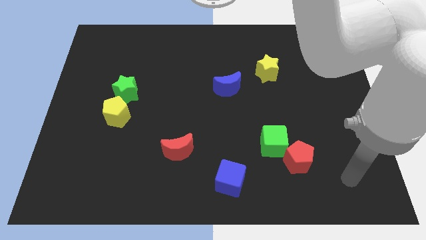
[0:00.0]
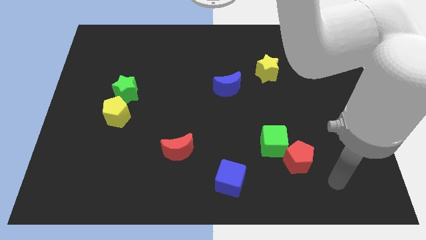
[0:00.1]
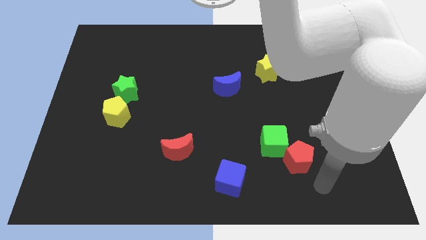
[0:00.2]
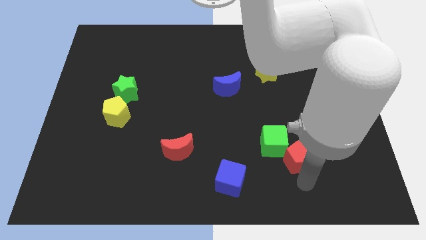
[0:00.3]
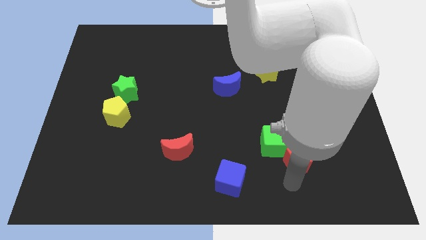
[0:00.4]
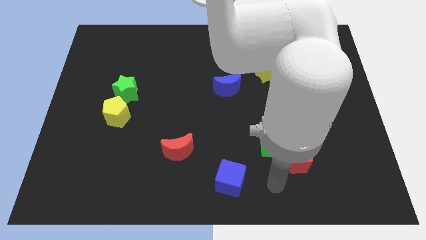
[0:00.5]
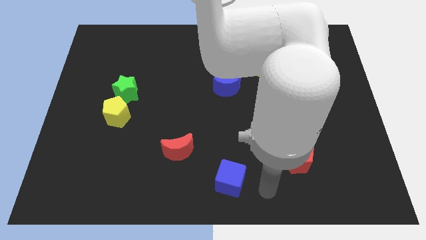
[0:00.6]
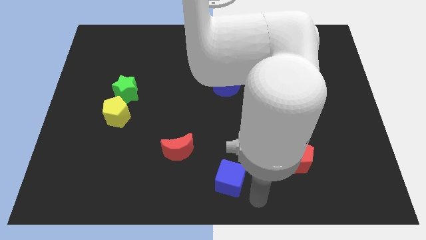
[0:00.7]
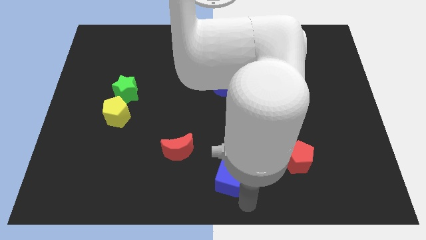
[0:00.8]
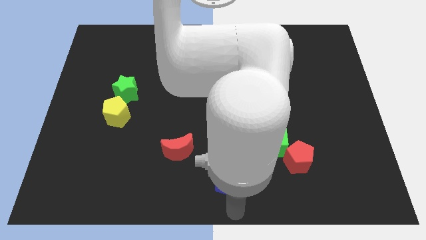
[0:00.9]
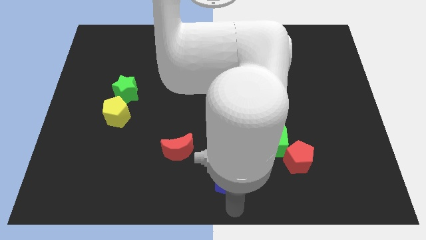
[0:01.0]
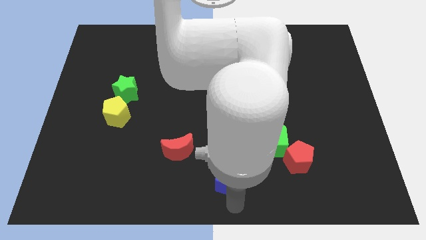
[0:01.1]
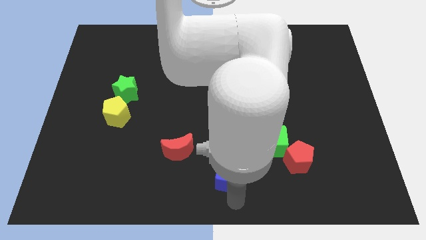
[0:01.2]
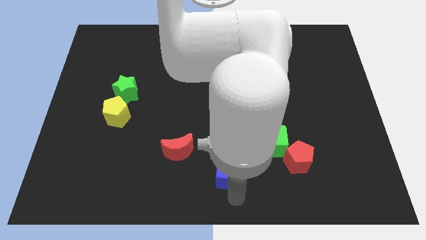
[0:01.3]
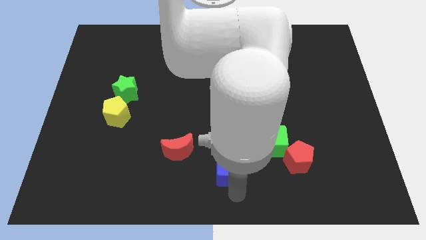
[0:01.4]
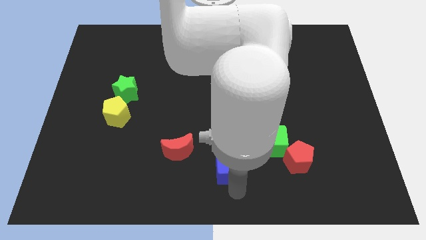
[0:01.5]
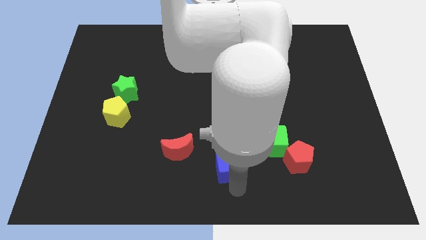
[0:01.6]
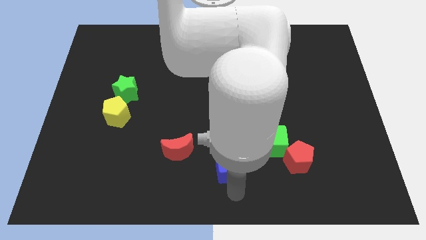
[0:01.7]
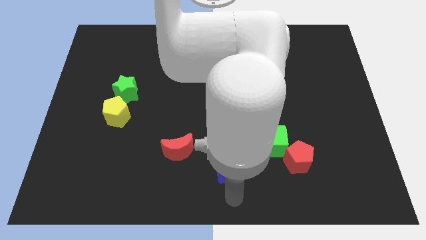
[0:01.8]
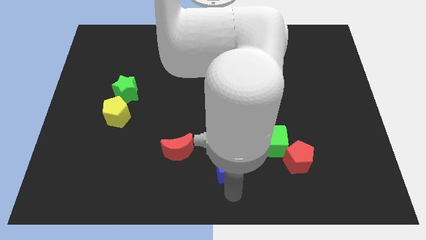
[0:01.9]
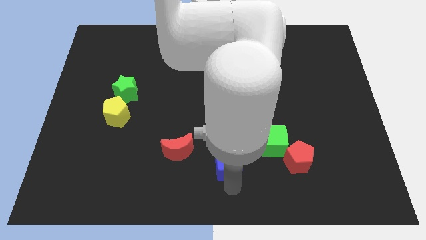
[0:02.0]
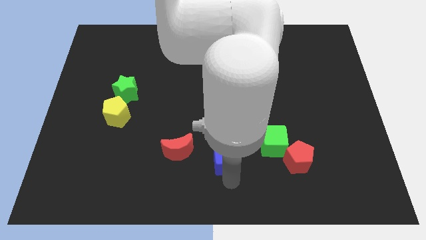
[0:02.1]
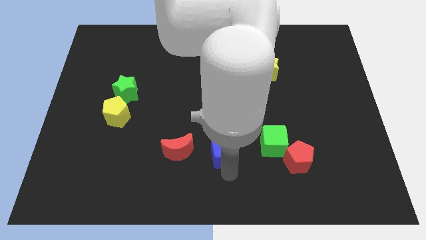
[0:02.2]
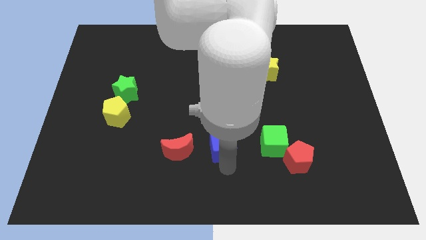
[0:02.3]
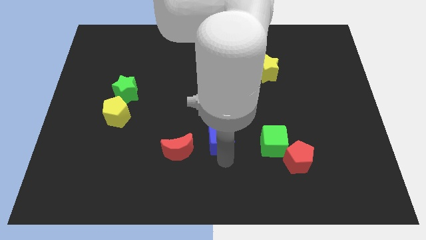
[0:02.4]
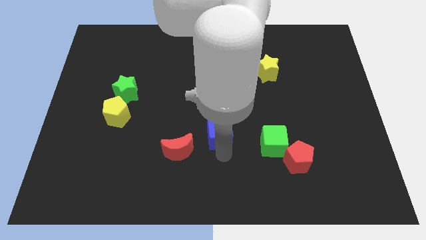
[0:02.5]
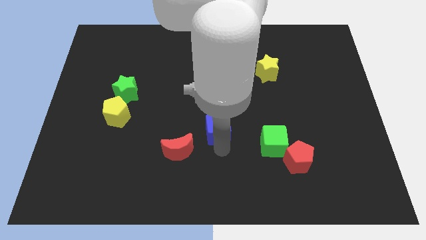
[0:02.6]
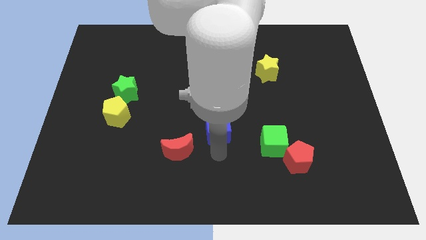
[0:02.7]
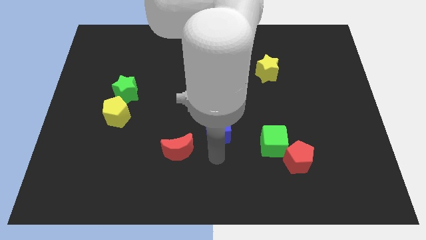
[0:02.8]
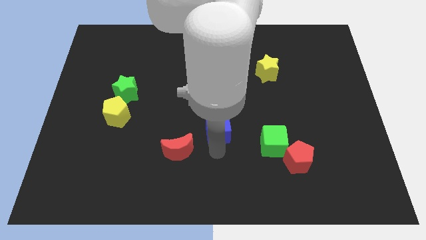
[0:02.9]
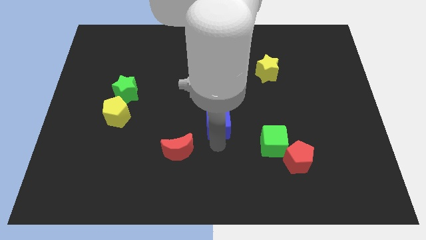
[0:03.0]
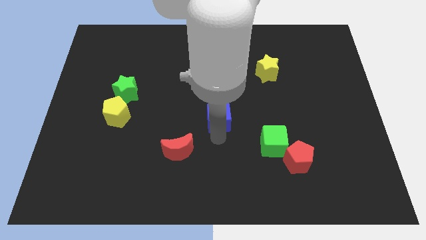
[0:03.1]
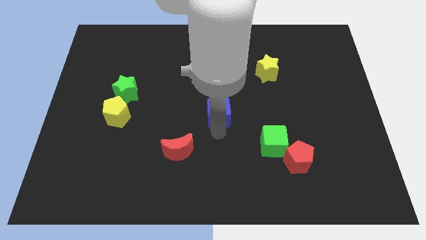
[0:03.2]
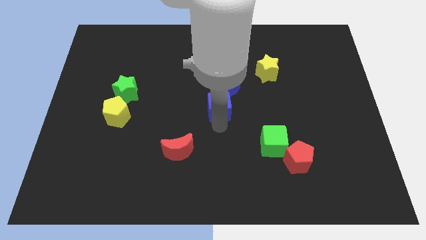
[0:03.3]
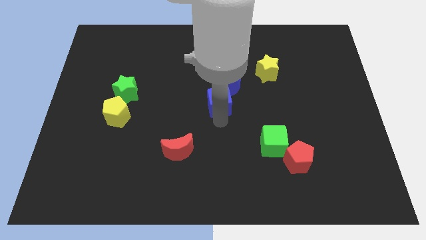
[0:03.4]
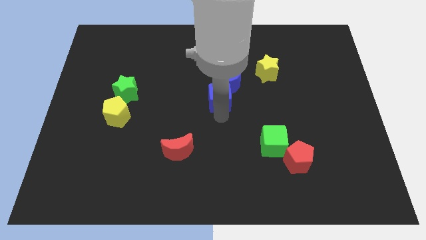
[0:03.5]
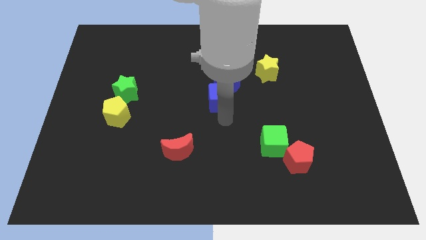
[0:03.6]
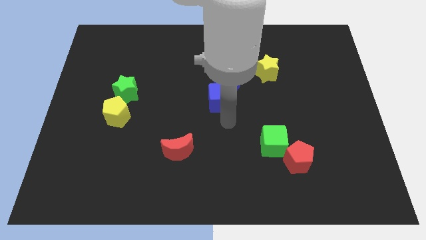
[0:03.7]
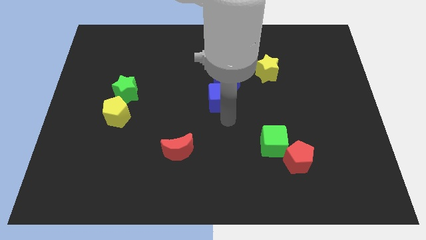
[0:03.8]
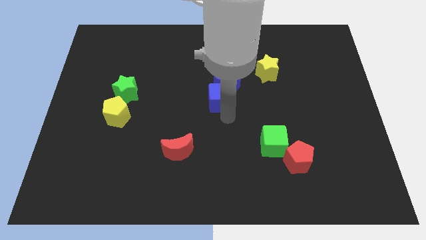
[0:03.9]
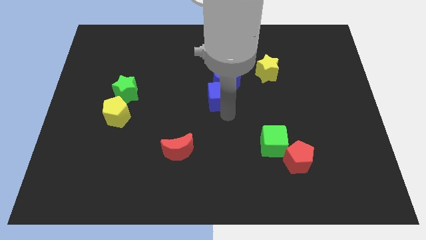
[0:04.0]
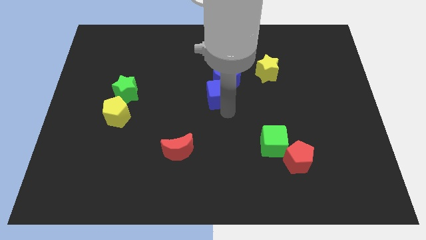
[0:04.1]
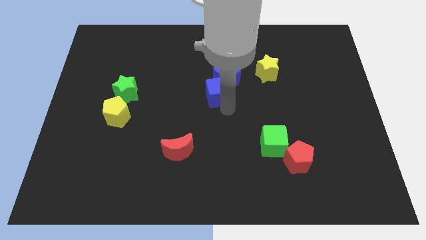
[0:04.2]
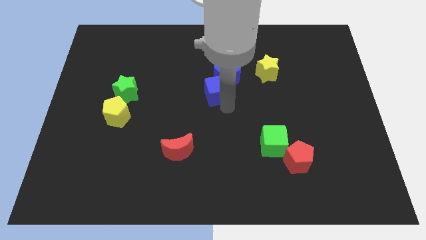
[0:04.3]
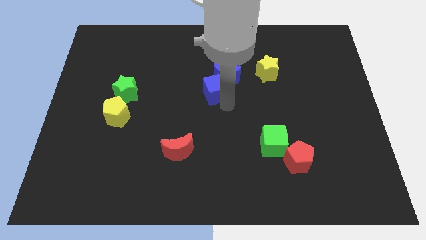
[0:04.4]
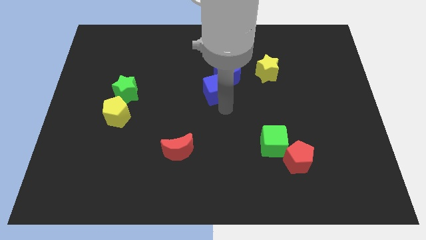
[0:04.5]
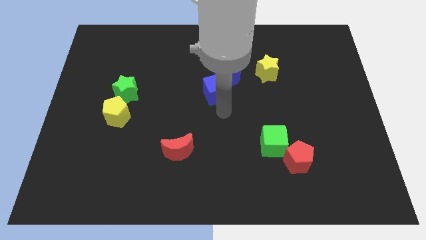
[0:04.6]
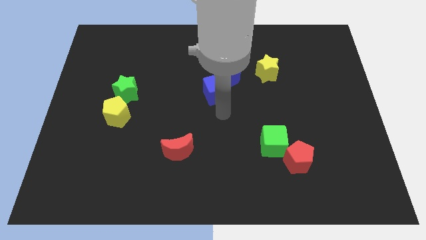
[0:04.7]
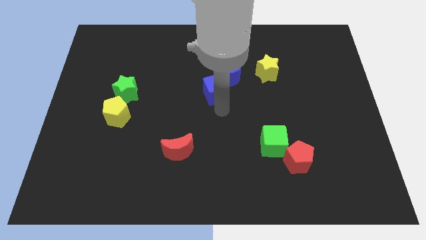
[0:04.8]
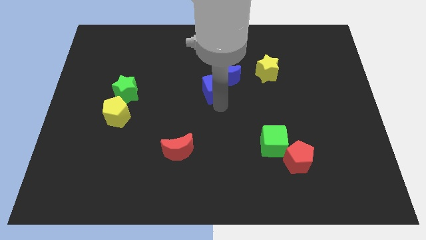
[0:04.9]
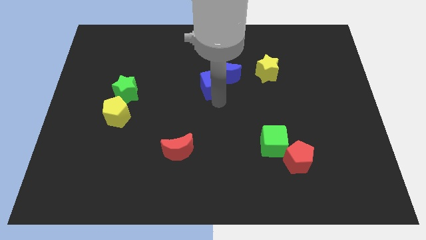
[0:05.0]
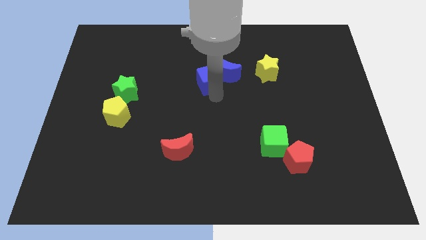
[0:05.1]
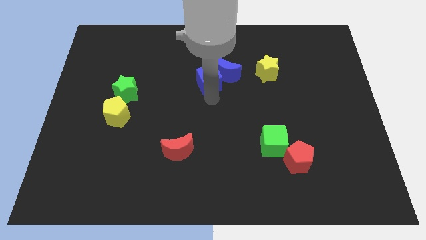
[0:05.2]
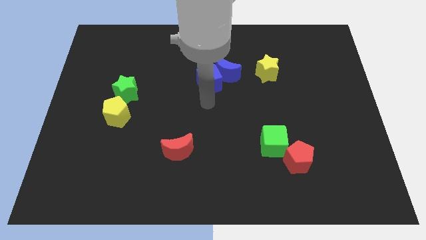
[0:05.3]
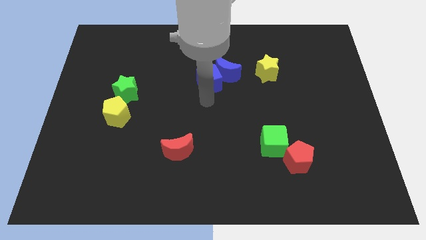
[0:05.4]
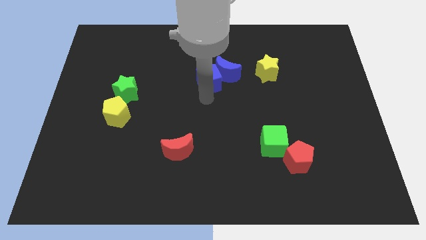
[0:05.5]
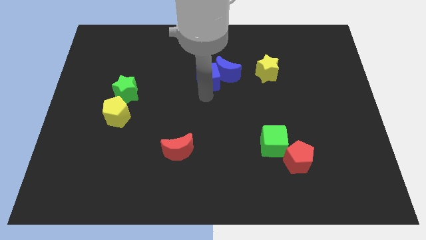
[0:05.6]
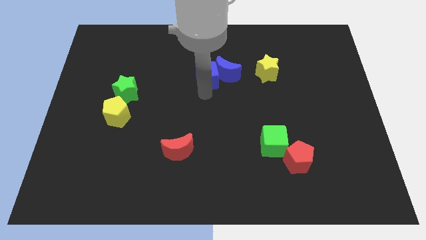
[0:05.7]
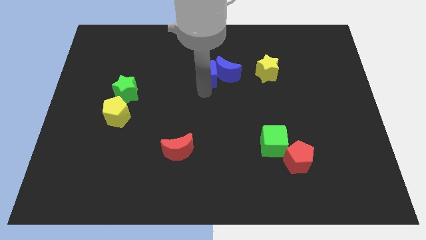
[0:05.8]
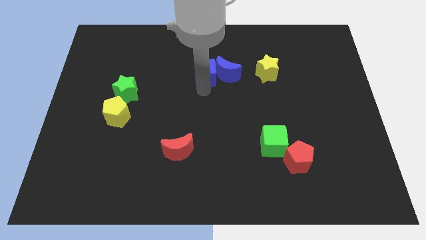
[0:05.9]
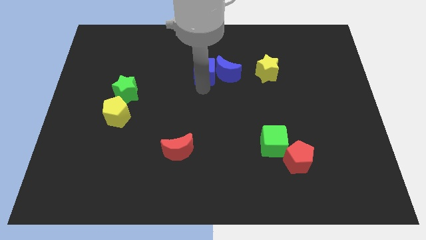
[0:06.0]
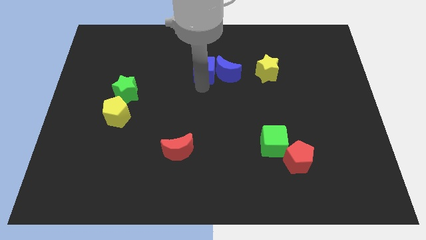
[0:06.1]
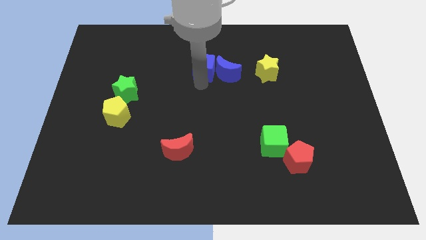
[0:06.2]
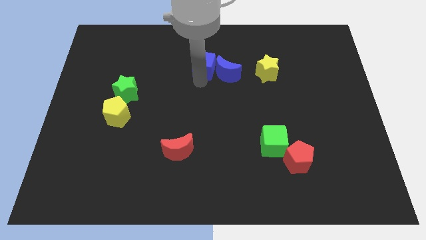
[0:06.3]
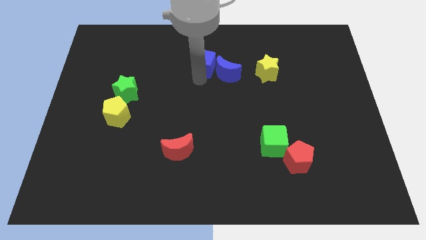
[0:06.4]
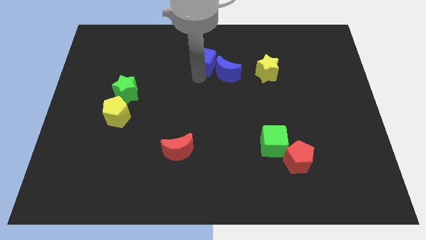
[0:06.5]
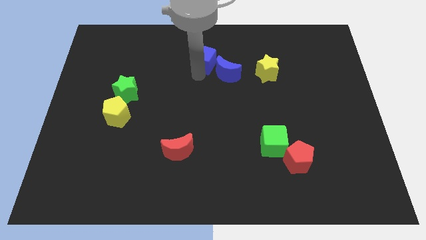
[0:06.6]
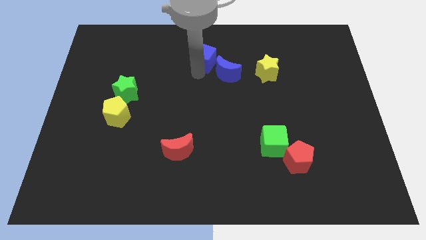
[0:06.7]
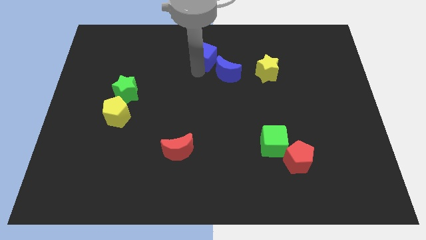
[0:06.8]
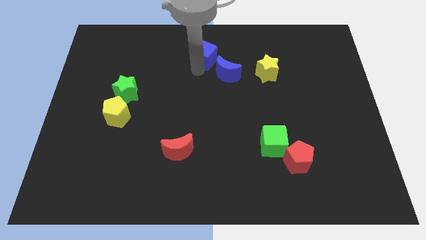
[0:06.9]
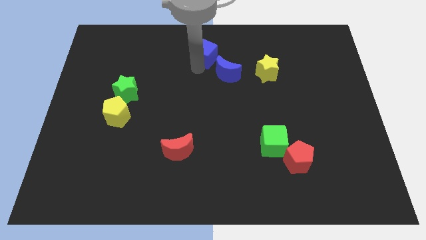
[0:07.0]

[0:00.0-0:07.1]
put the blue cube to the top side
